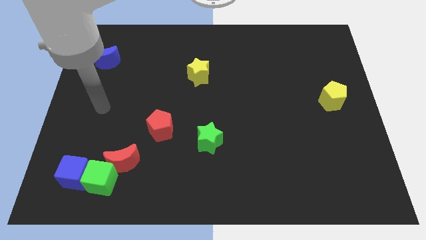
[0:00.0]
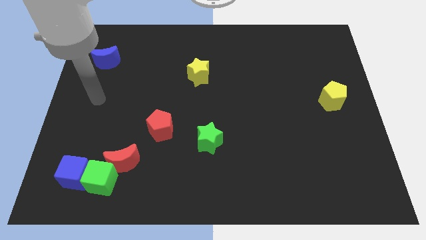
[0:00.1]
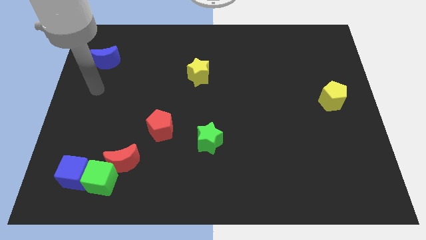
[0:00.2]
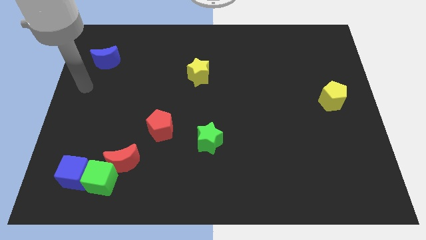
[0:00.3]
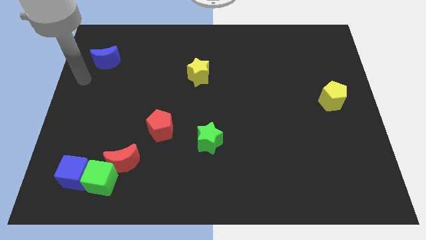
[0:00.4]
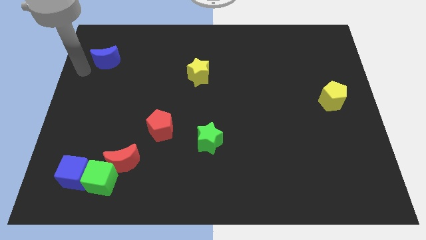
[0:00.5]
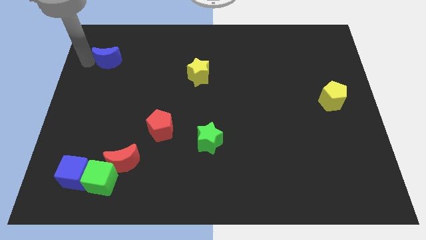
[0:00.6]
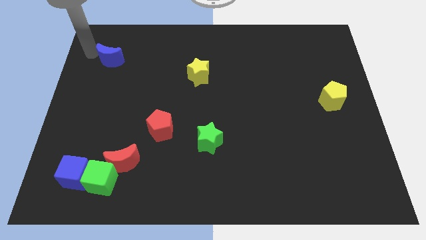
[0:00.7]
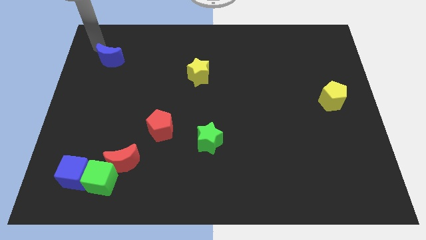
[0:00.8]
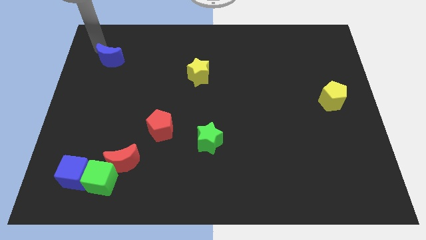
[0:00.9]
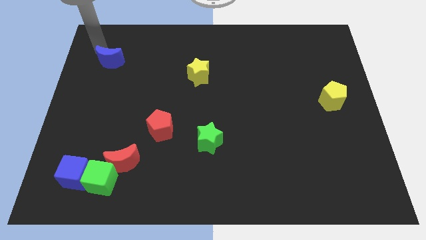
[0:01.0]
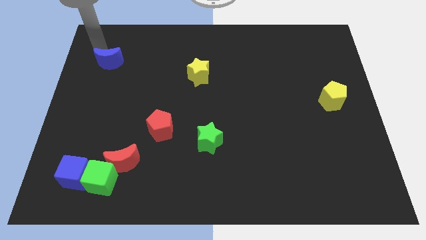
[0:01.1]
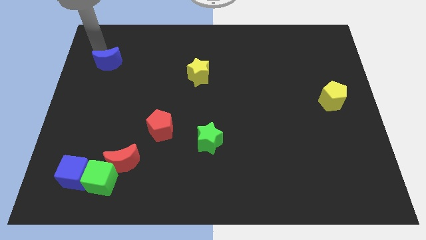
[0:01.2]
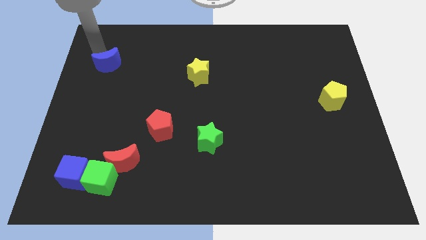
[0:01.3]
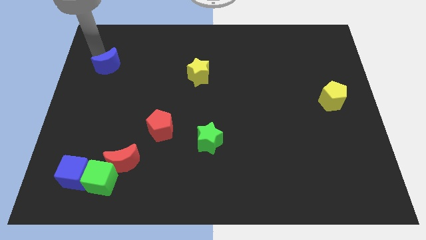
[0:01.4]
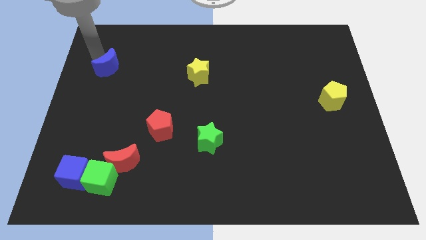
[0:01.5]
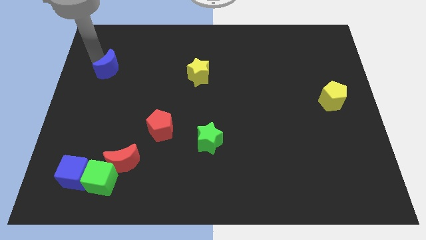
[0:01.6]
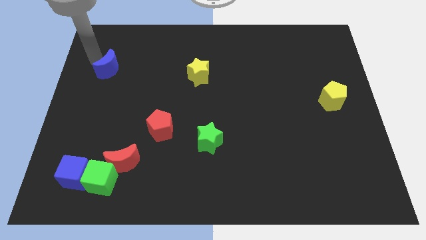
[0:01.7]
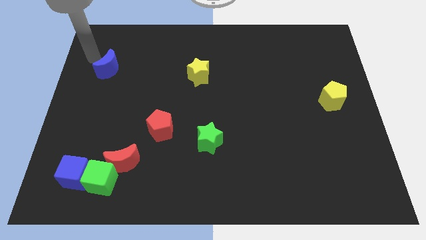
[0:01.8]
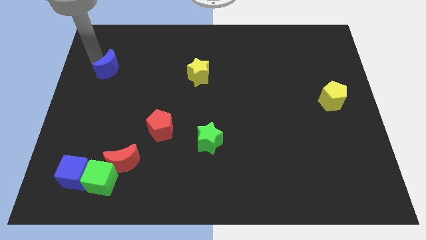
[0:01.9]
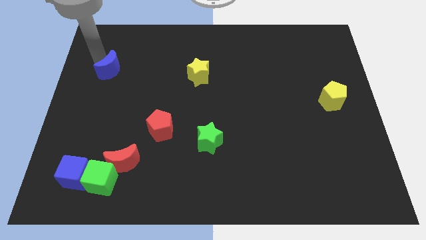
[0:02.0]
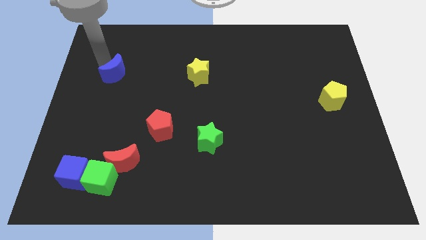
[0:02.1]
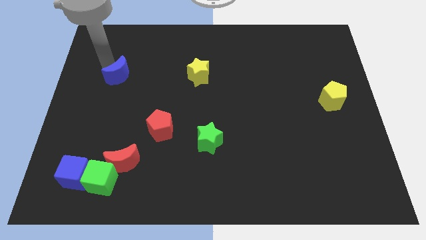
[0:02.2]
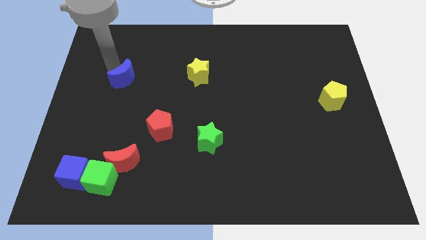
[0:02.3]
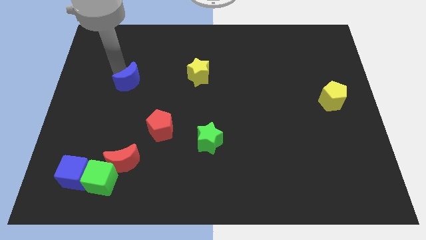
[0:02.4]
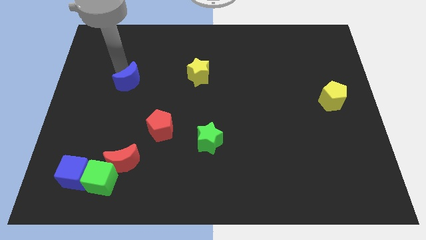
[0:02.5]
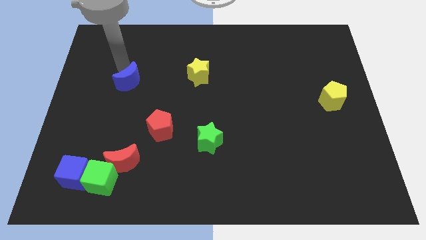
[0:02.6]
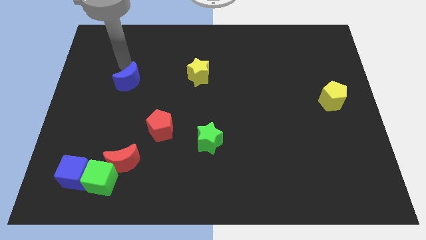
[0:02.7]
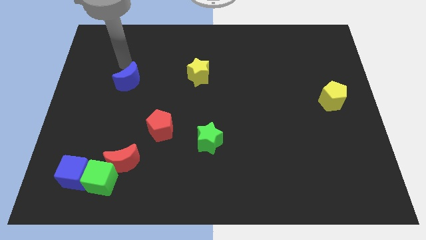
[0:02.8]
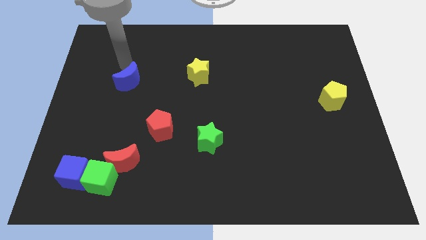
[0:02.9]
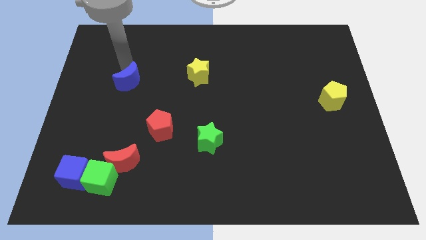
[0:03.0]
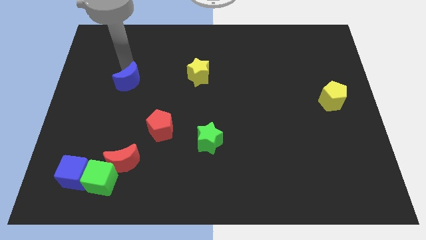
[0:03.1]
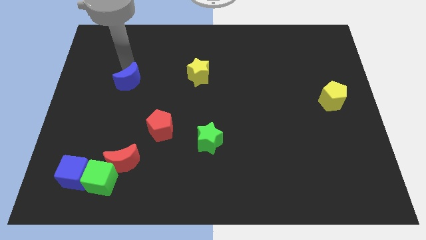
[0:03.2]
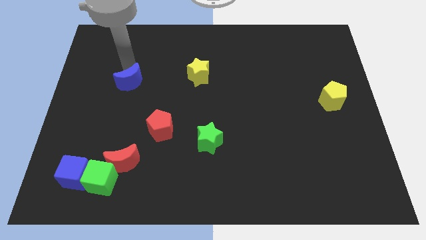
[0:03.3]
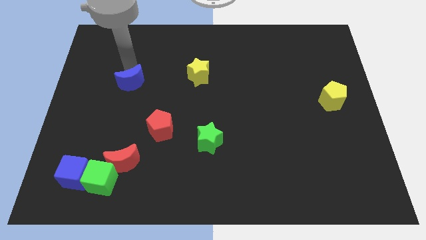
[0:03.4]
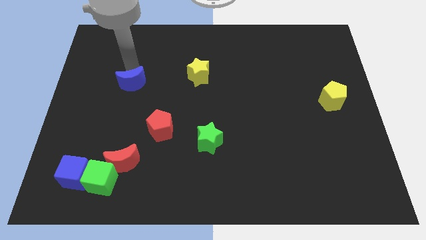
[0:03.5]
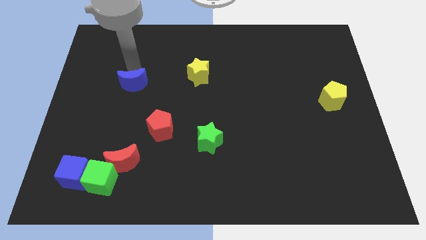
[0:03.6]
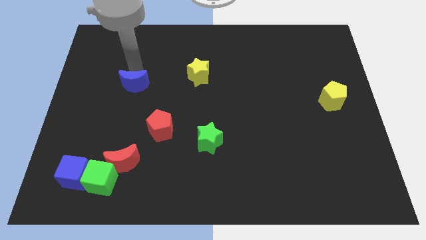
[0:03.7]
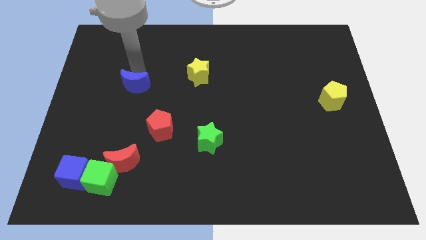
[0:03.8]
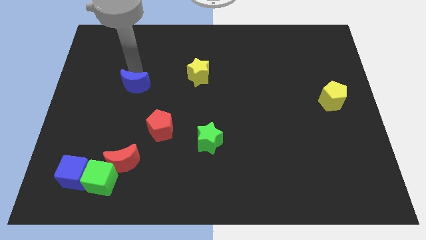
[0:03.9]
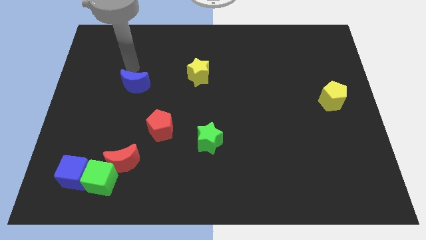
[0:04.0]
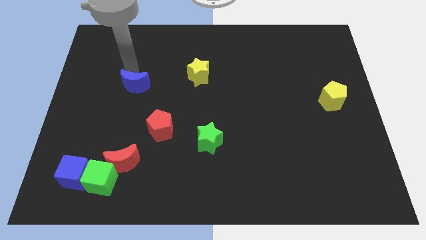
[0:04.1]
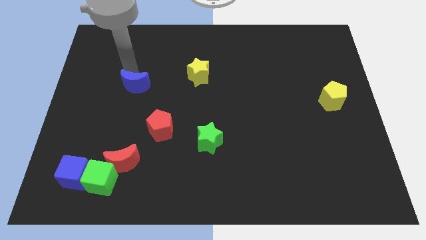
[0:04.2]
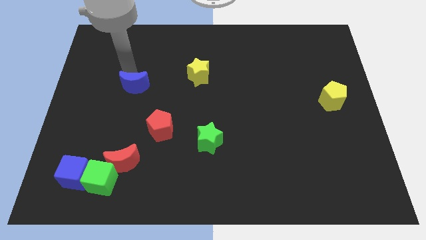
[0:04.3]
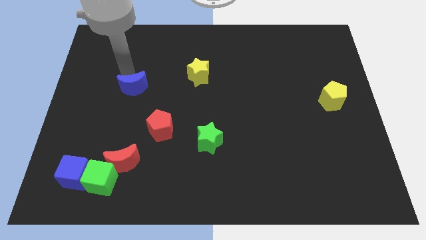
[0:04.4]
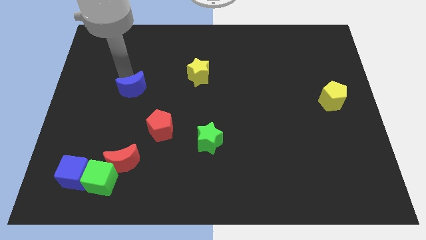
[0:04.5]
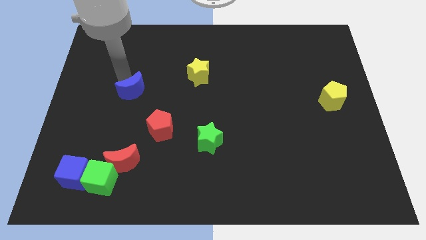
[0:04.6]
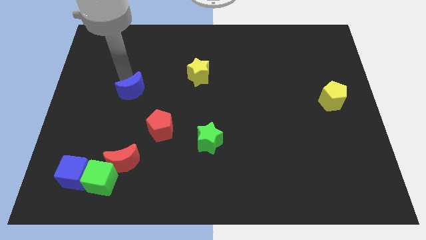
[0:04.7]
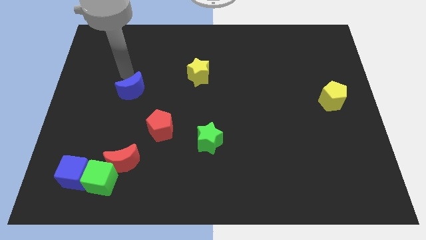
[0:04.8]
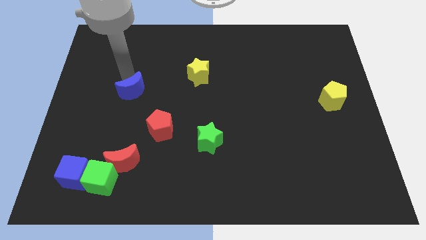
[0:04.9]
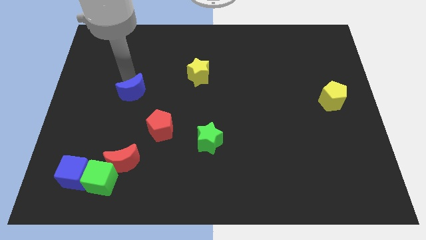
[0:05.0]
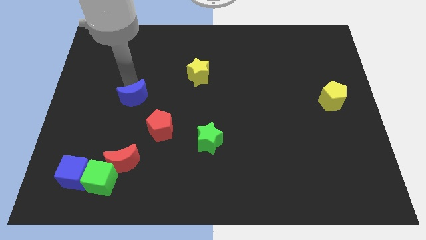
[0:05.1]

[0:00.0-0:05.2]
put the blue moon to the top left side of the red pentagon

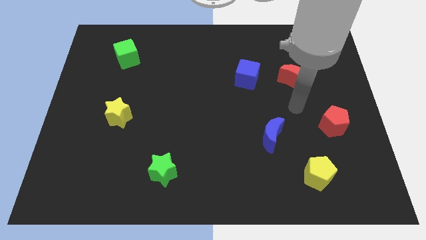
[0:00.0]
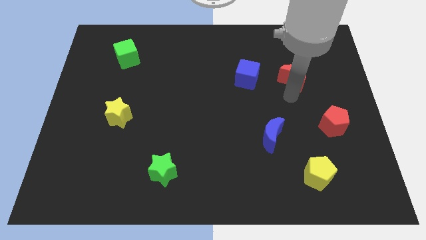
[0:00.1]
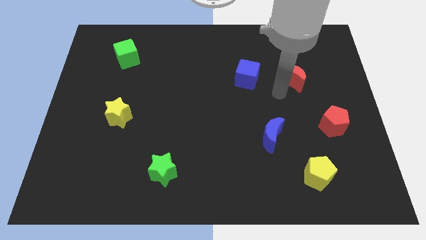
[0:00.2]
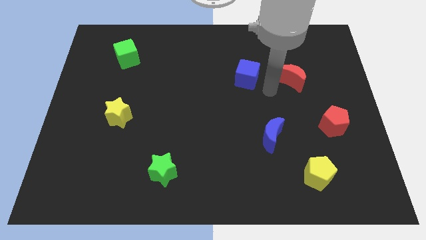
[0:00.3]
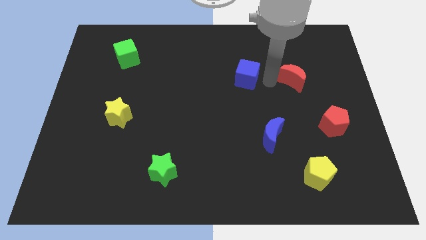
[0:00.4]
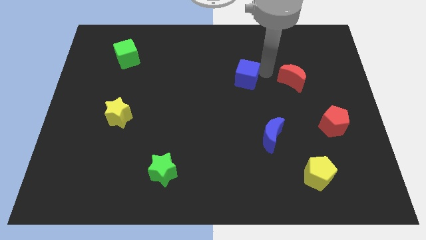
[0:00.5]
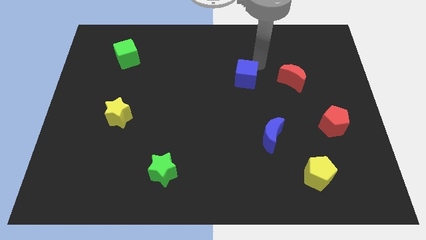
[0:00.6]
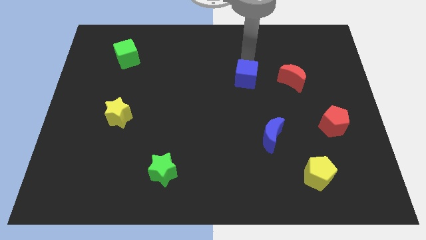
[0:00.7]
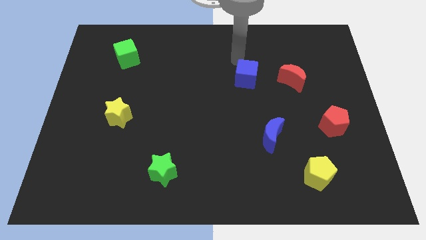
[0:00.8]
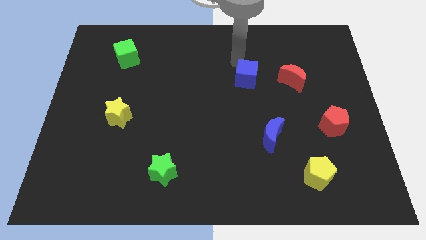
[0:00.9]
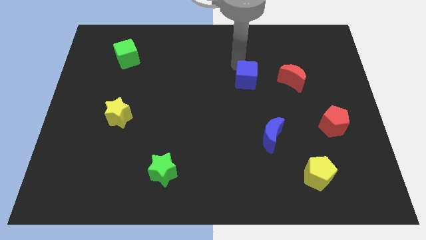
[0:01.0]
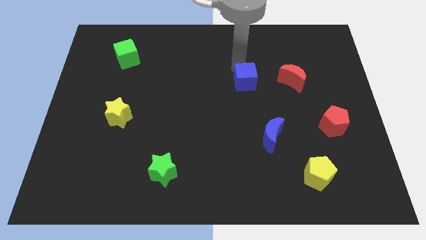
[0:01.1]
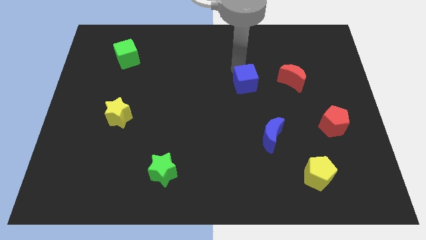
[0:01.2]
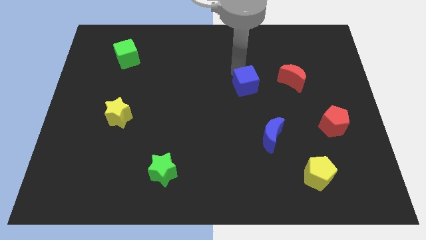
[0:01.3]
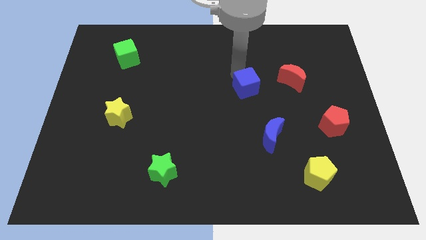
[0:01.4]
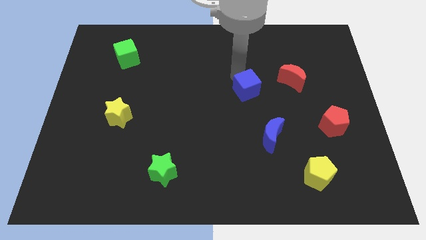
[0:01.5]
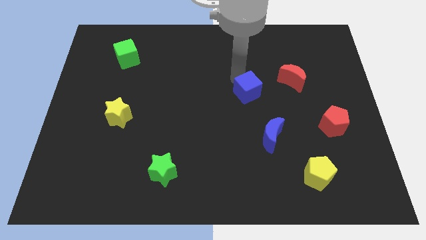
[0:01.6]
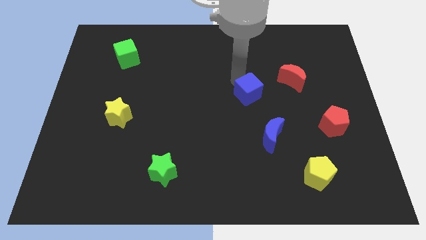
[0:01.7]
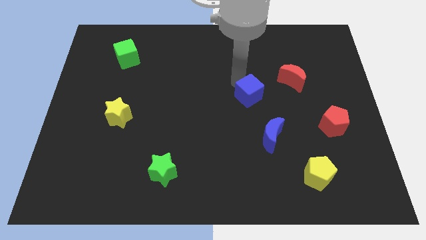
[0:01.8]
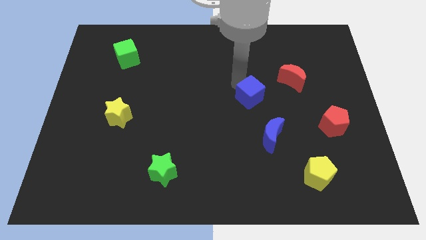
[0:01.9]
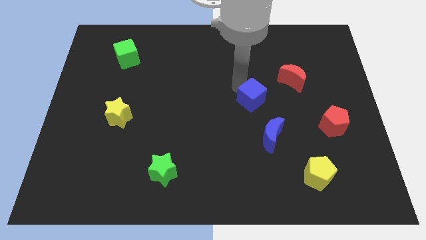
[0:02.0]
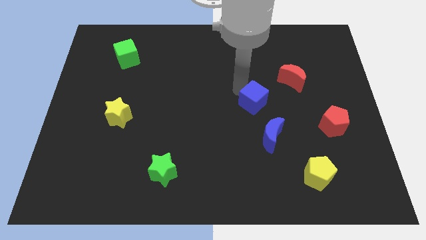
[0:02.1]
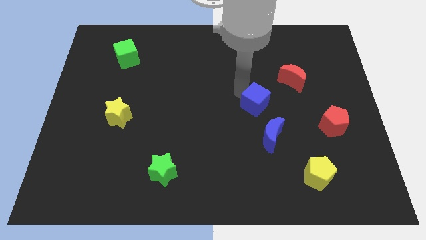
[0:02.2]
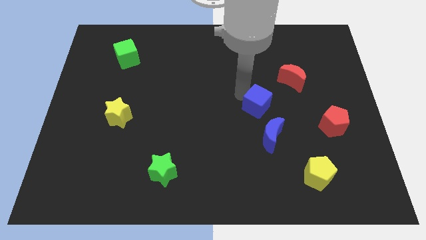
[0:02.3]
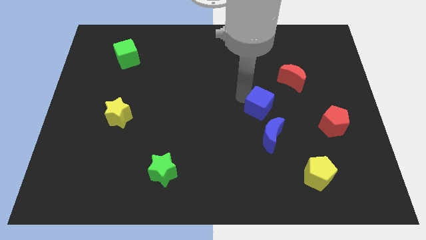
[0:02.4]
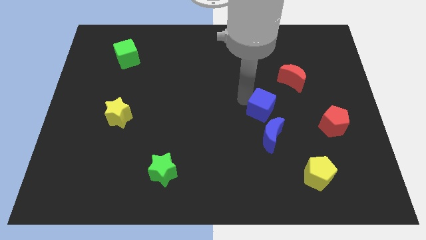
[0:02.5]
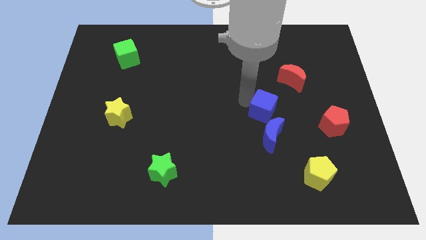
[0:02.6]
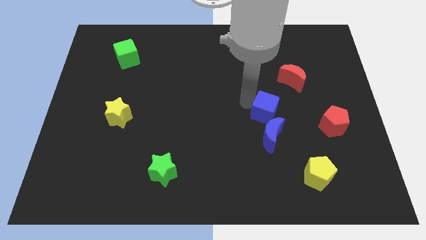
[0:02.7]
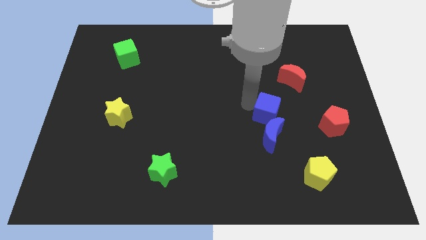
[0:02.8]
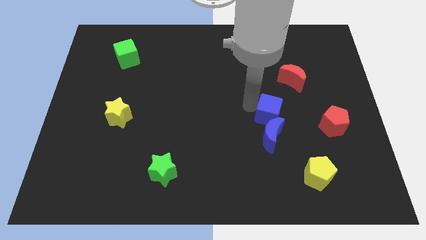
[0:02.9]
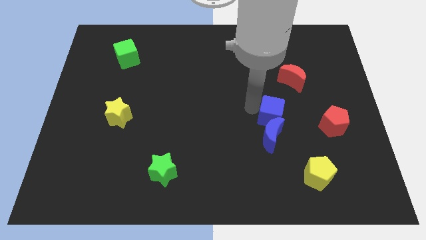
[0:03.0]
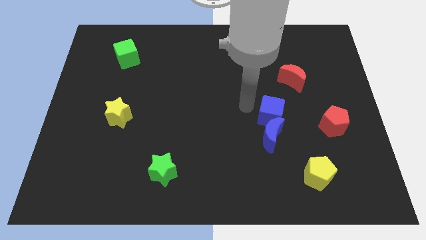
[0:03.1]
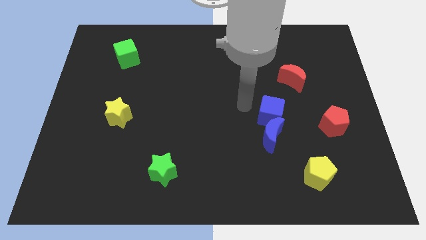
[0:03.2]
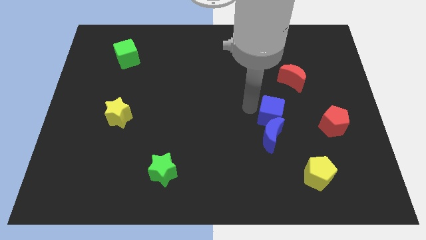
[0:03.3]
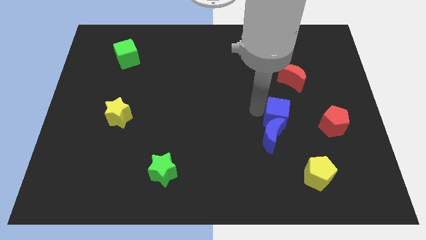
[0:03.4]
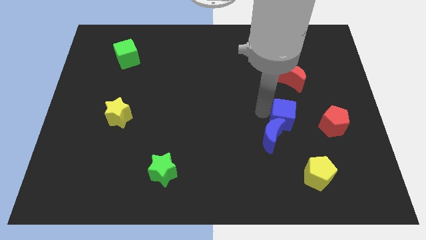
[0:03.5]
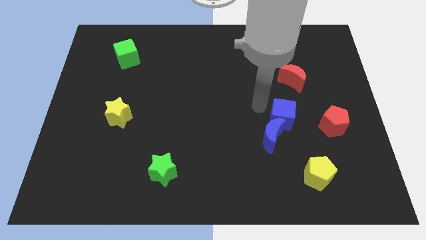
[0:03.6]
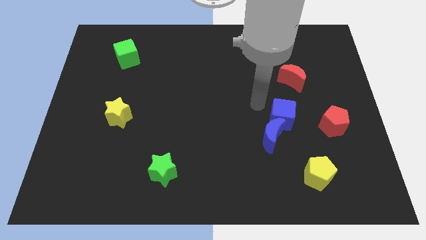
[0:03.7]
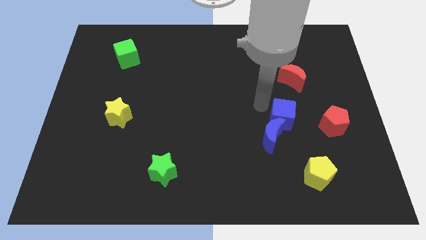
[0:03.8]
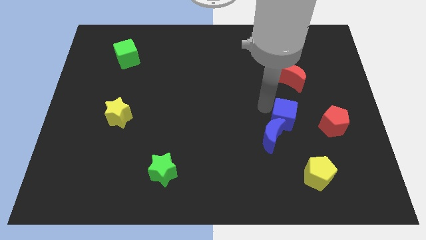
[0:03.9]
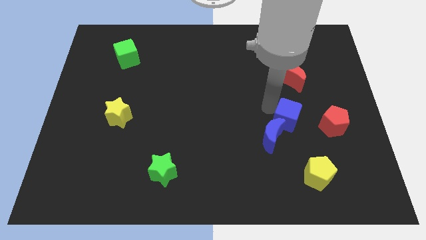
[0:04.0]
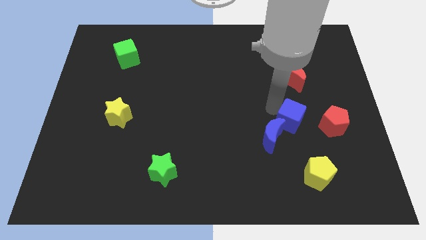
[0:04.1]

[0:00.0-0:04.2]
put the blue cube right of the blue moon
